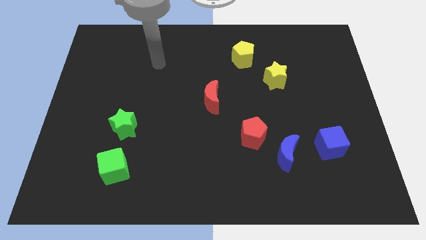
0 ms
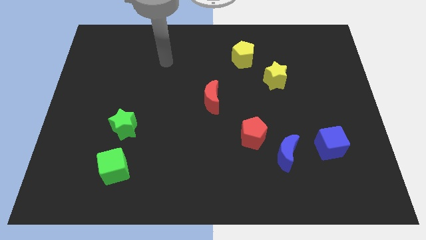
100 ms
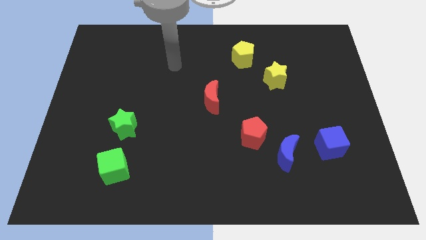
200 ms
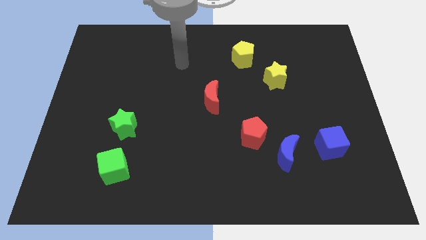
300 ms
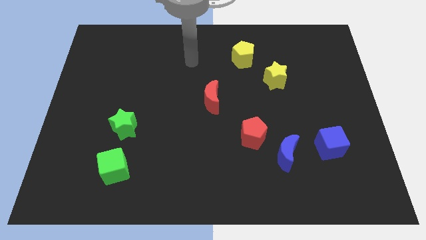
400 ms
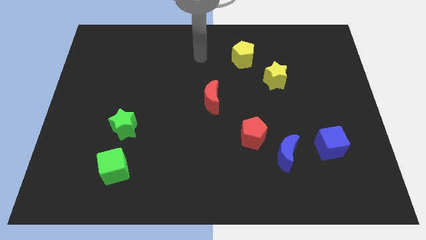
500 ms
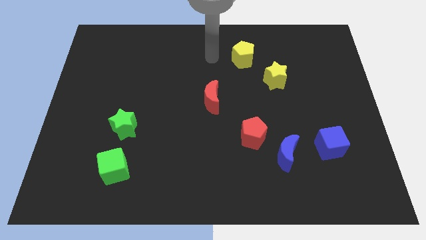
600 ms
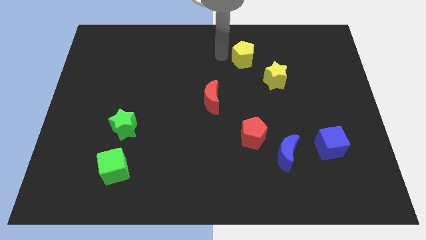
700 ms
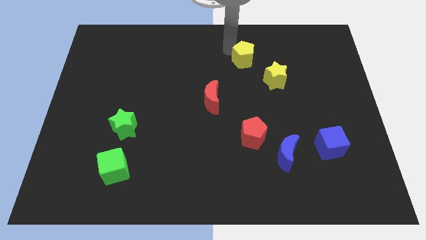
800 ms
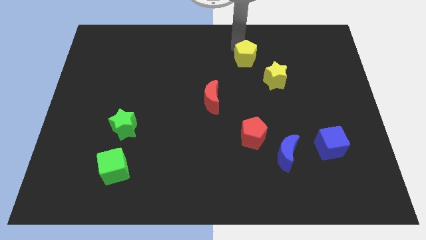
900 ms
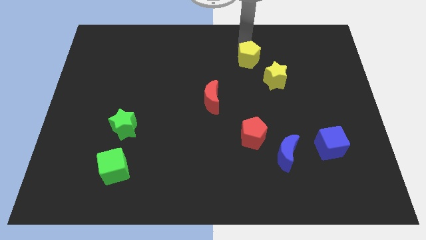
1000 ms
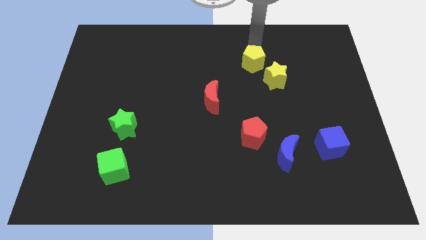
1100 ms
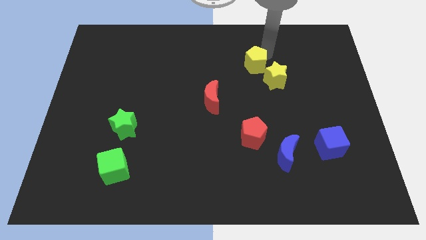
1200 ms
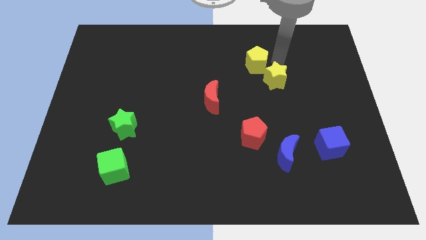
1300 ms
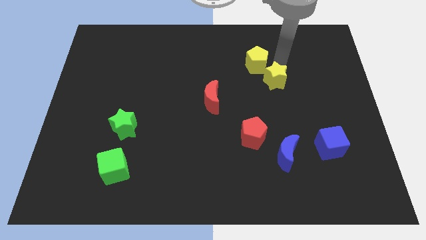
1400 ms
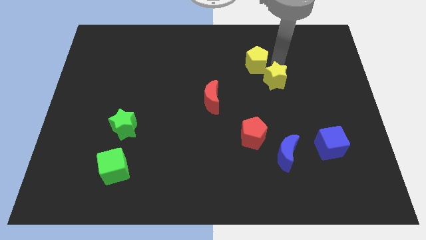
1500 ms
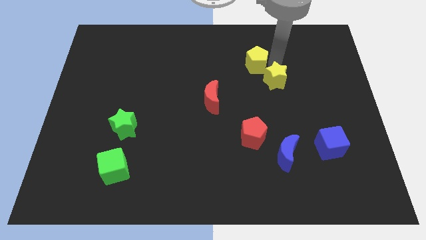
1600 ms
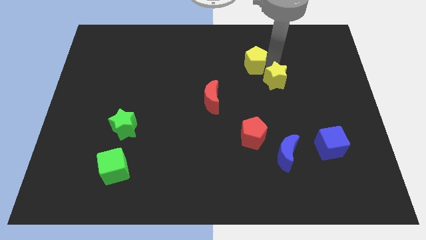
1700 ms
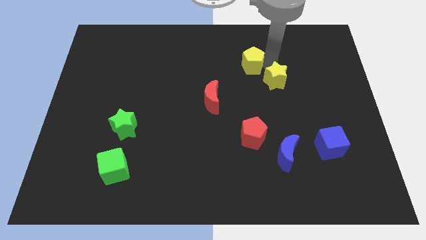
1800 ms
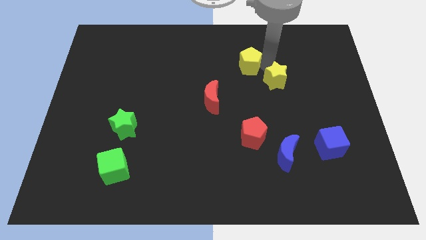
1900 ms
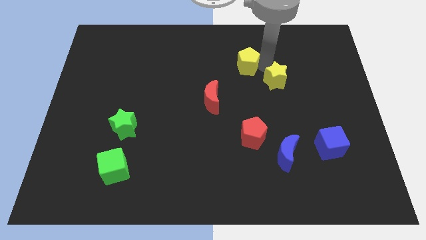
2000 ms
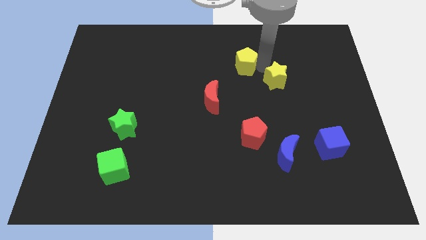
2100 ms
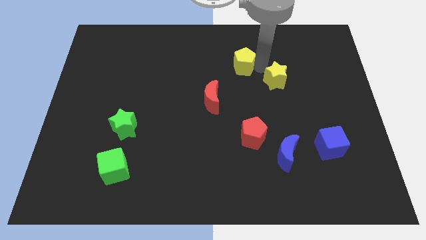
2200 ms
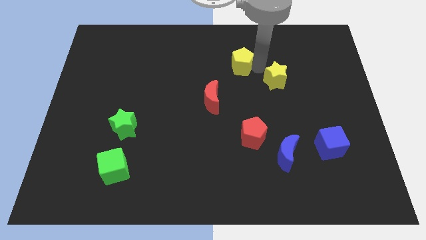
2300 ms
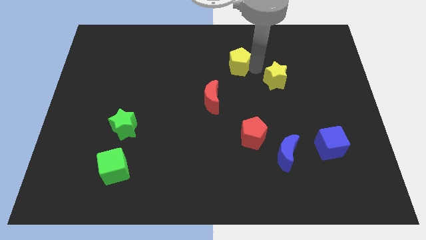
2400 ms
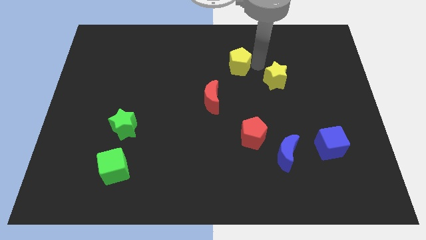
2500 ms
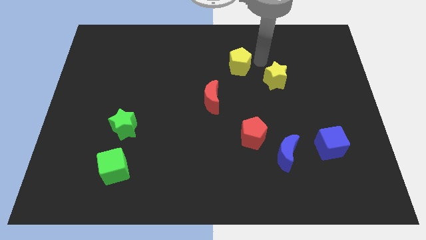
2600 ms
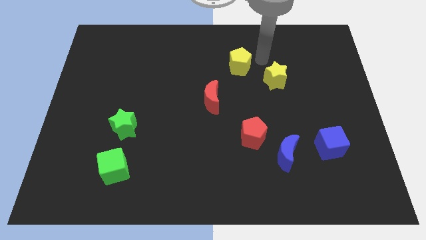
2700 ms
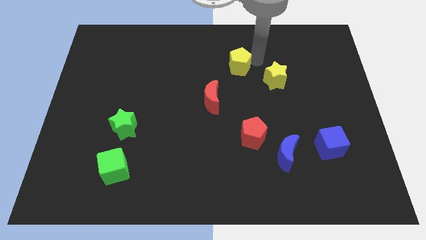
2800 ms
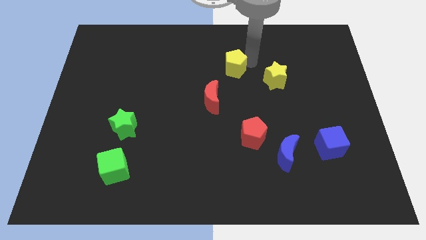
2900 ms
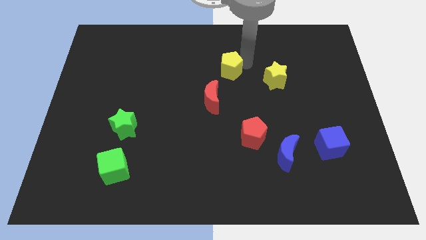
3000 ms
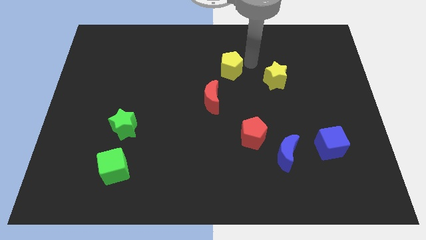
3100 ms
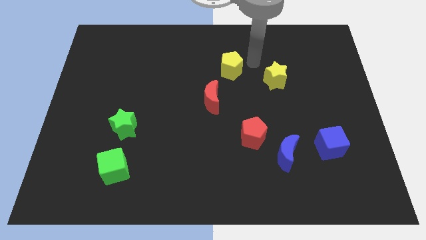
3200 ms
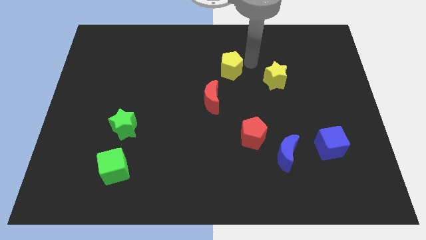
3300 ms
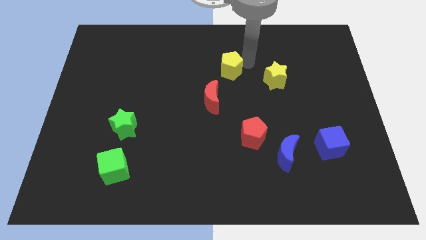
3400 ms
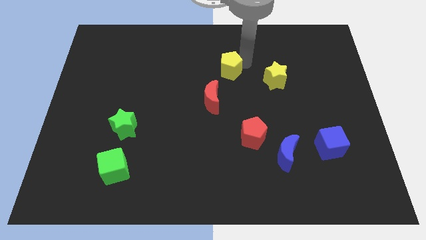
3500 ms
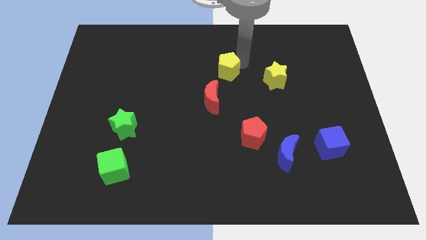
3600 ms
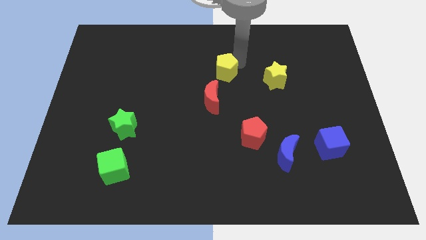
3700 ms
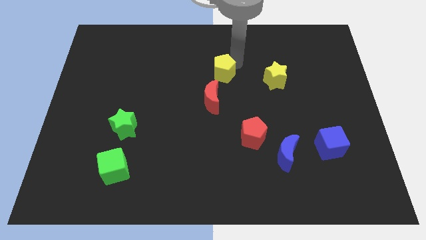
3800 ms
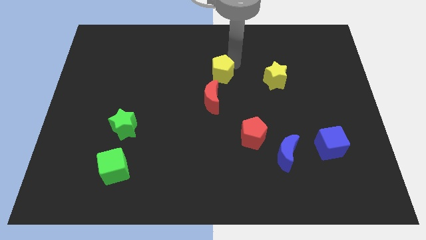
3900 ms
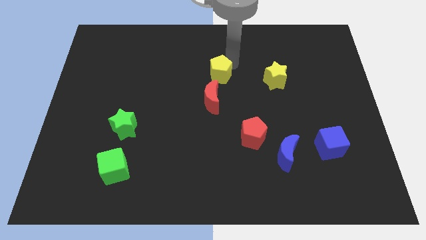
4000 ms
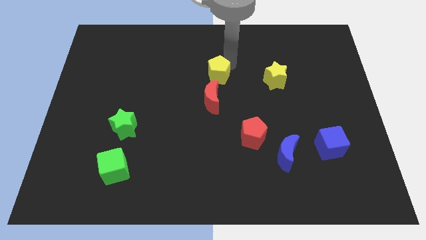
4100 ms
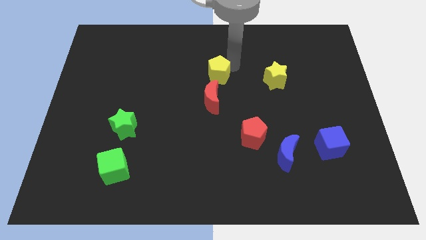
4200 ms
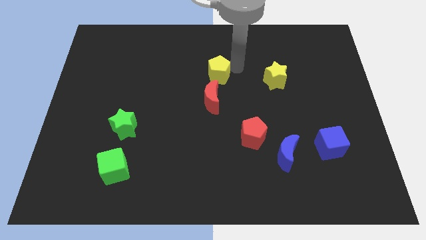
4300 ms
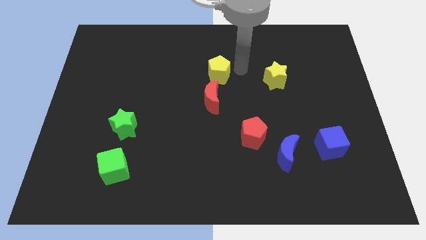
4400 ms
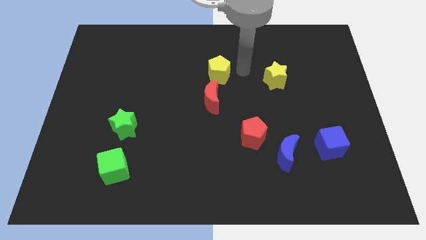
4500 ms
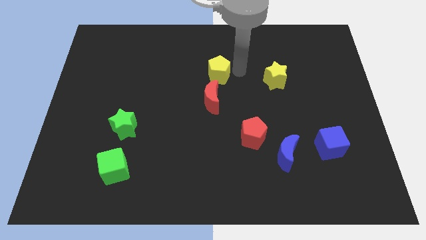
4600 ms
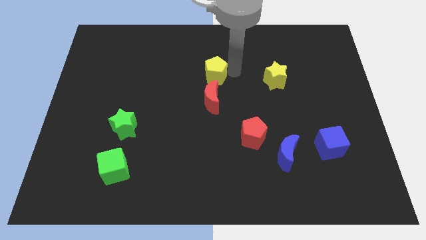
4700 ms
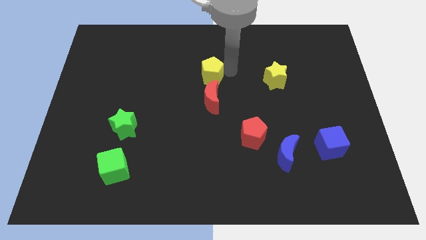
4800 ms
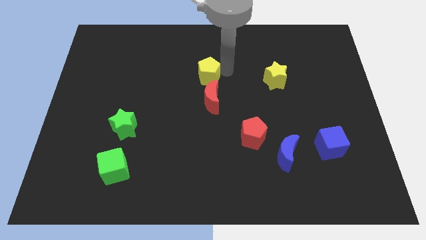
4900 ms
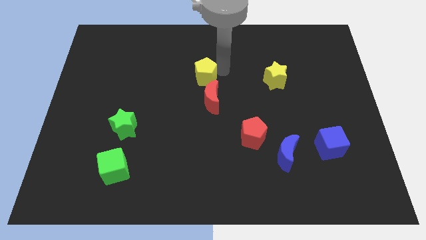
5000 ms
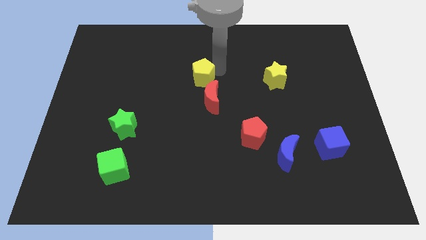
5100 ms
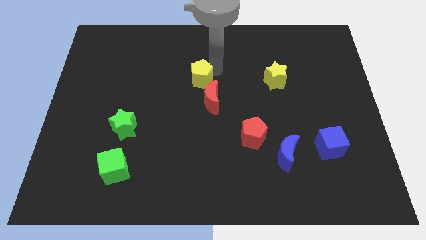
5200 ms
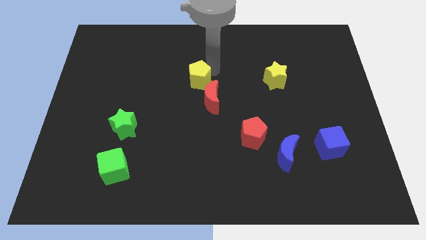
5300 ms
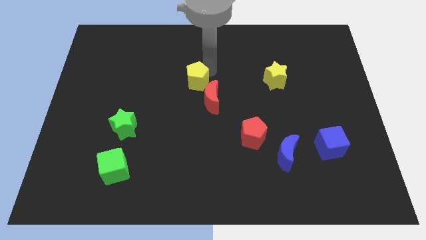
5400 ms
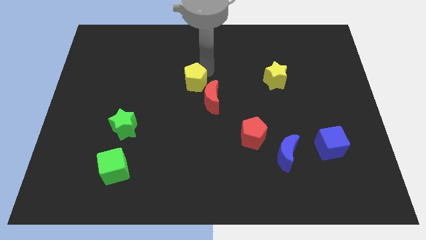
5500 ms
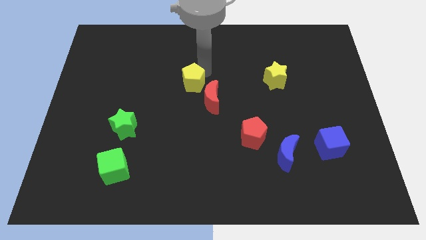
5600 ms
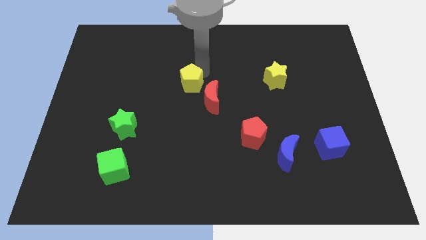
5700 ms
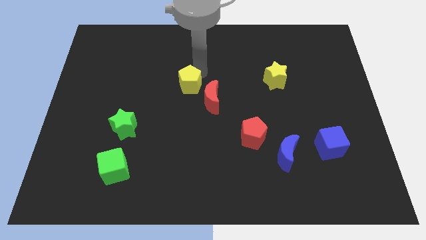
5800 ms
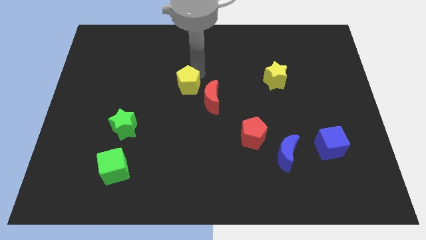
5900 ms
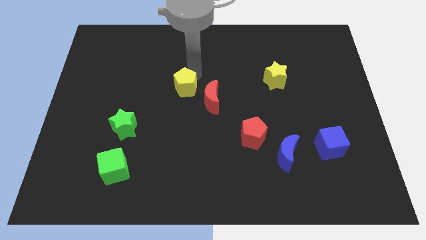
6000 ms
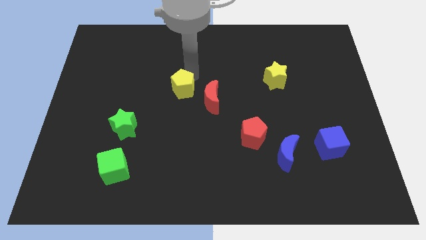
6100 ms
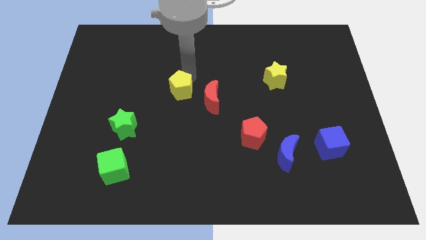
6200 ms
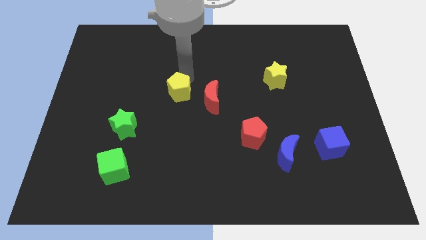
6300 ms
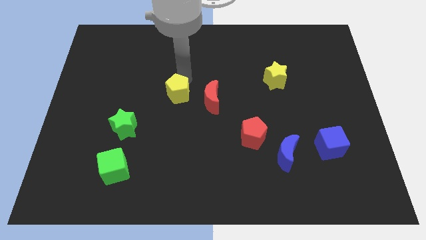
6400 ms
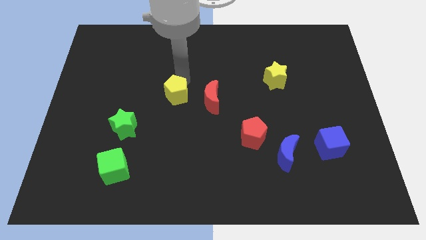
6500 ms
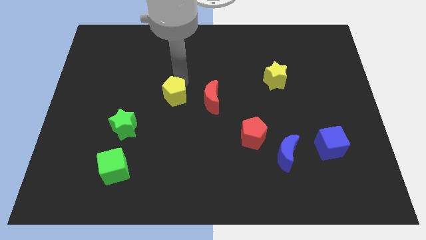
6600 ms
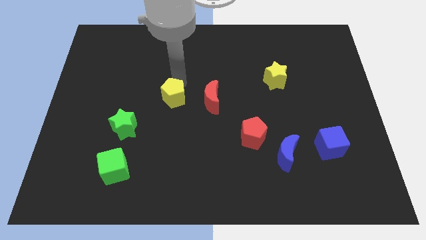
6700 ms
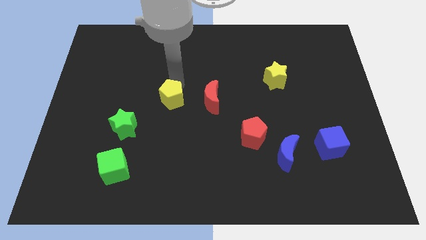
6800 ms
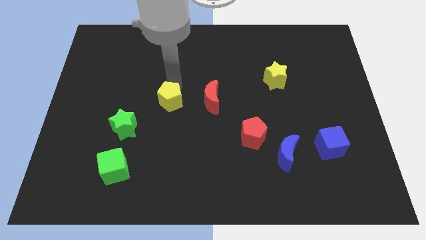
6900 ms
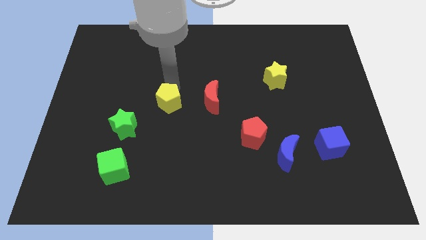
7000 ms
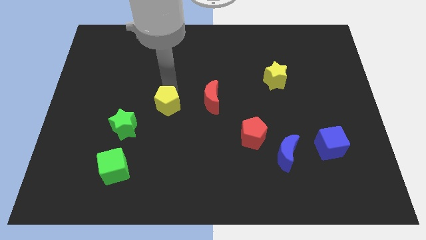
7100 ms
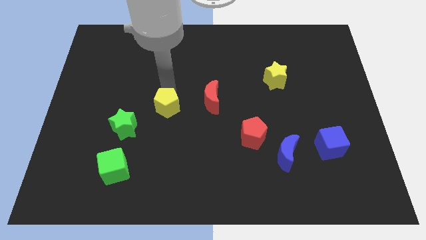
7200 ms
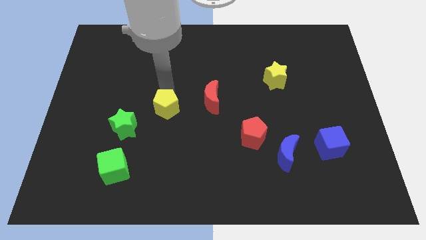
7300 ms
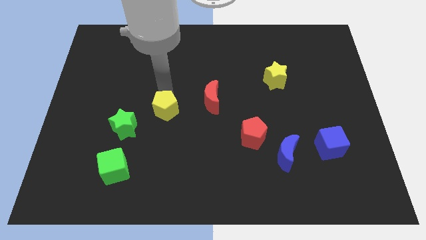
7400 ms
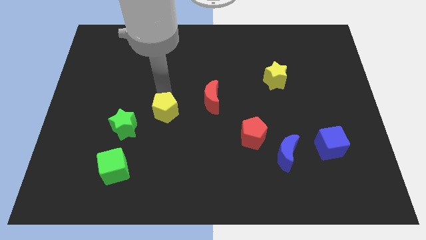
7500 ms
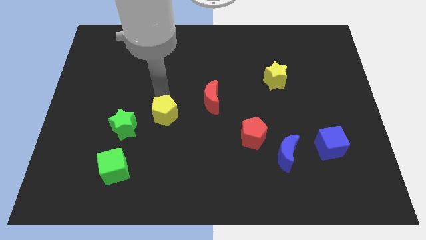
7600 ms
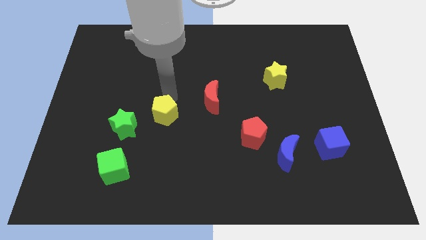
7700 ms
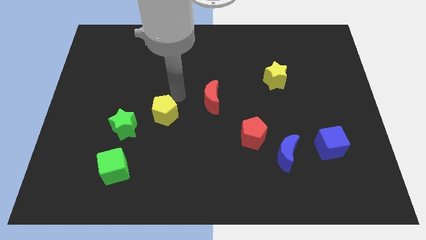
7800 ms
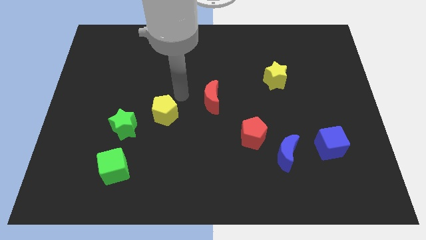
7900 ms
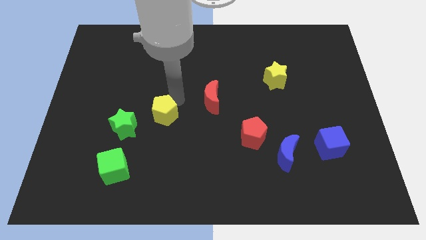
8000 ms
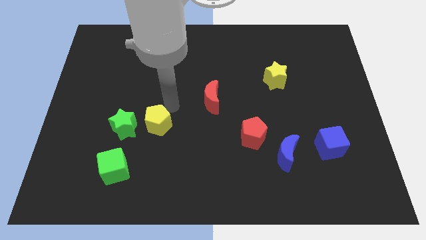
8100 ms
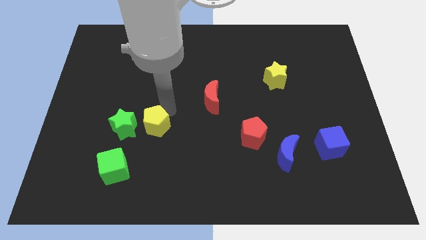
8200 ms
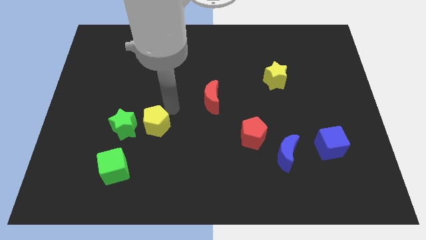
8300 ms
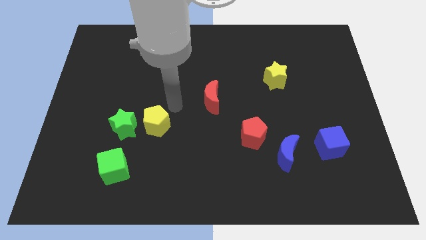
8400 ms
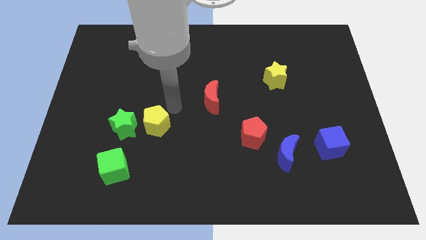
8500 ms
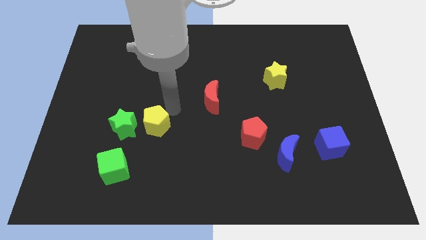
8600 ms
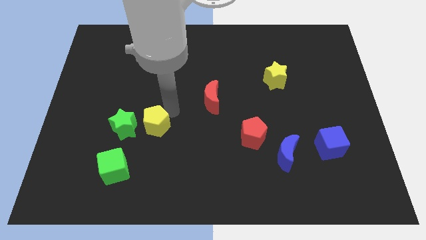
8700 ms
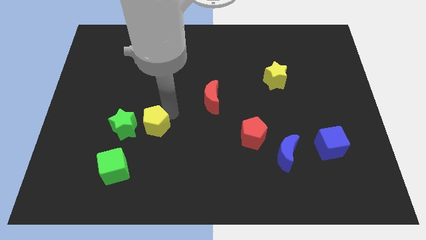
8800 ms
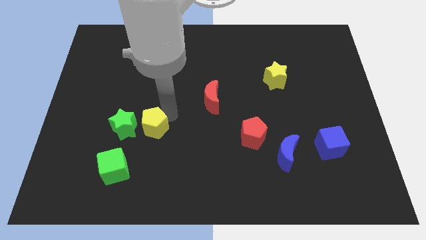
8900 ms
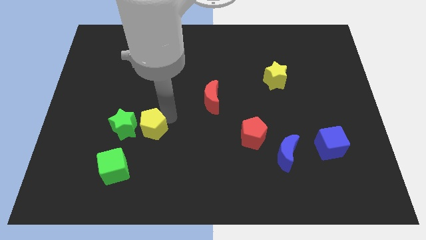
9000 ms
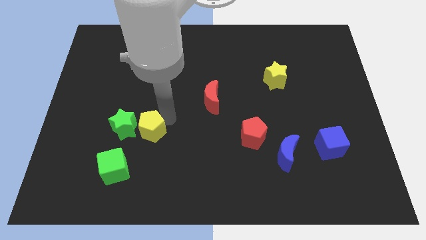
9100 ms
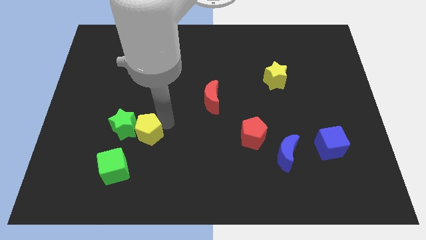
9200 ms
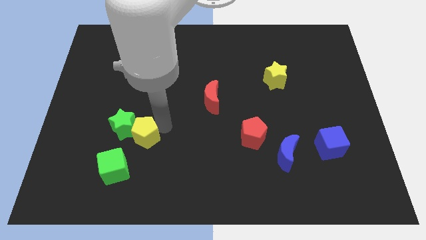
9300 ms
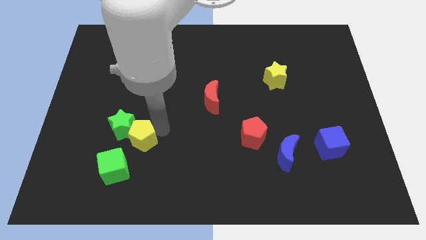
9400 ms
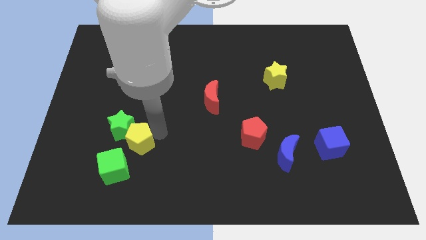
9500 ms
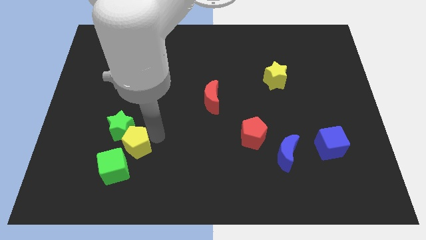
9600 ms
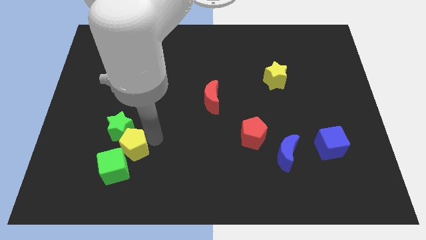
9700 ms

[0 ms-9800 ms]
push the yellow pentagon to the green cube
